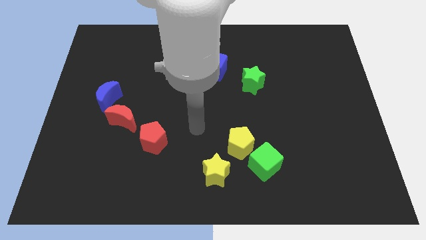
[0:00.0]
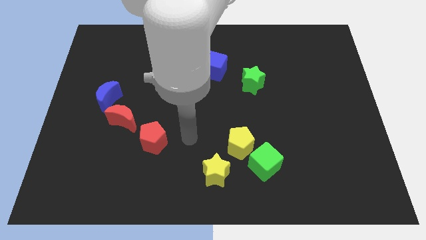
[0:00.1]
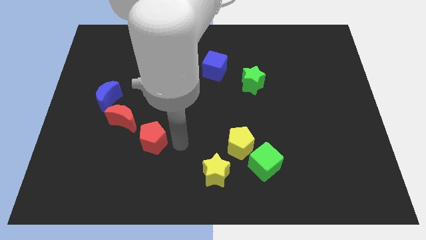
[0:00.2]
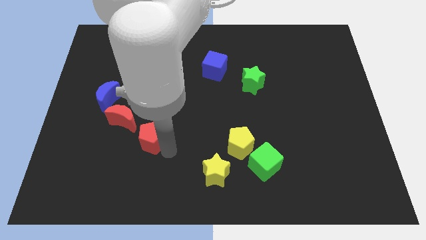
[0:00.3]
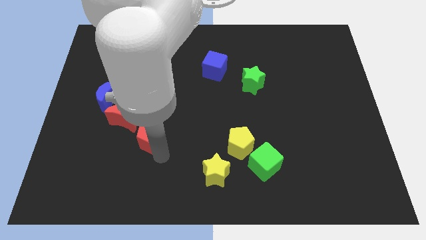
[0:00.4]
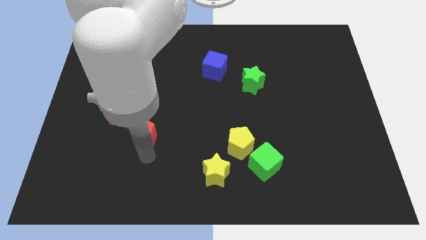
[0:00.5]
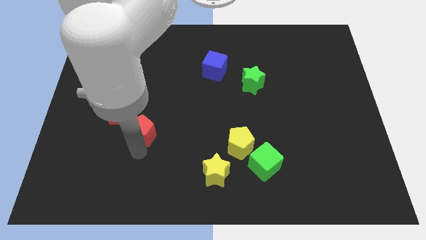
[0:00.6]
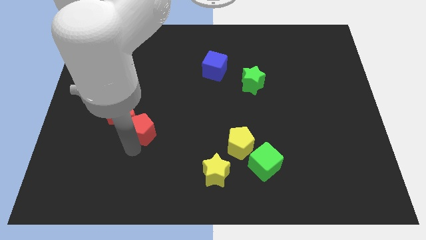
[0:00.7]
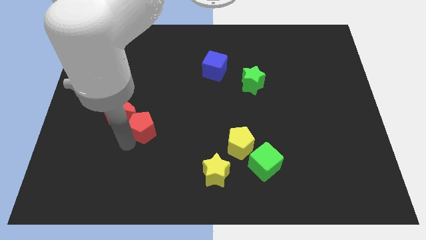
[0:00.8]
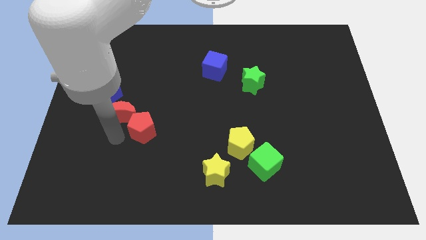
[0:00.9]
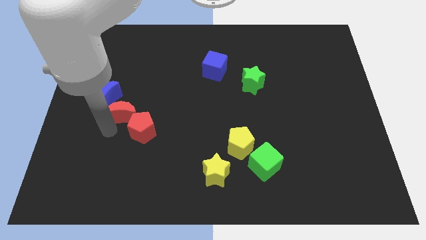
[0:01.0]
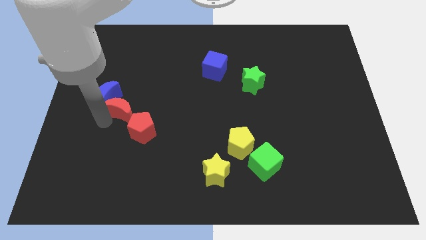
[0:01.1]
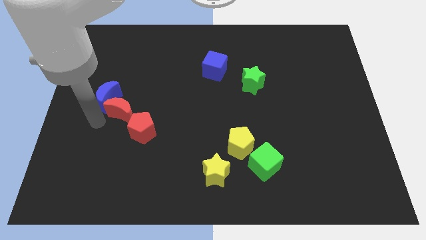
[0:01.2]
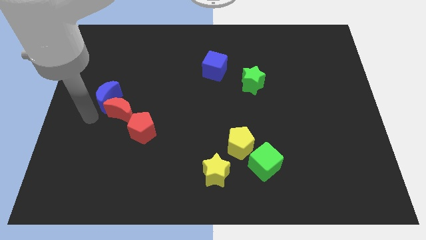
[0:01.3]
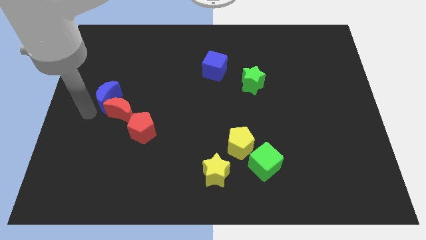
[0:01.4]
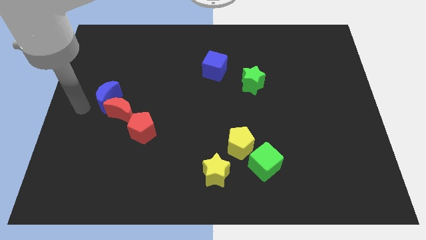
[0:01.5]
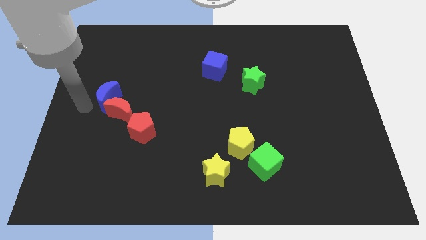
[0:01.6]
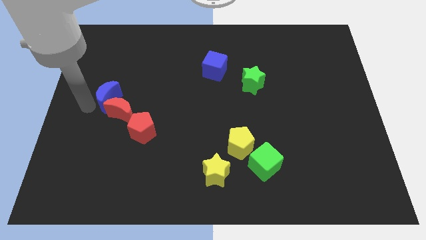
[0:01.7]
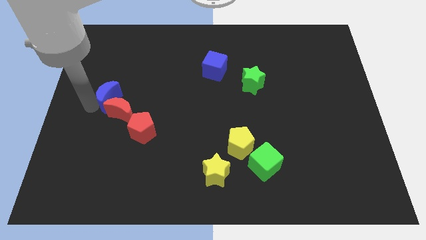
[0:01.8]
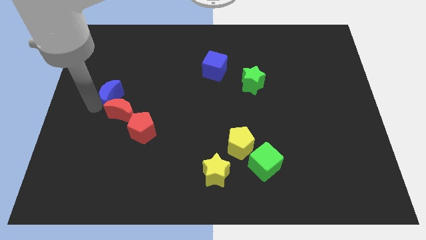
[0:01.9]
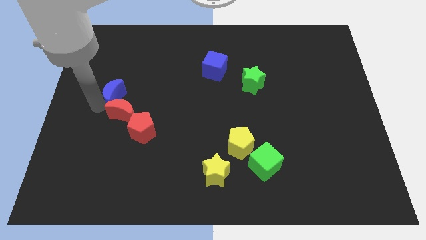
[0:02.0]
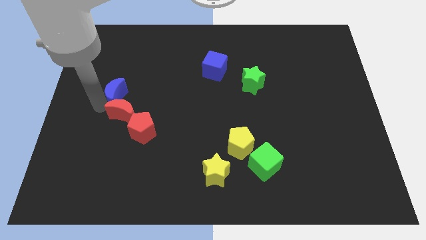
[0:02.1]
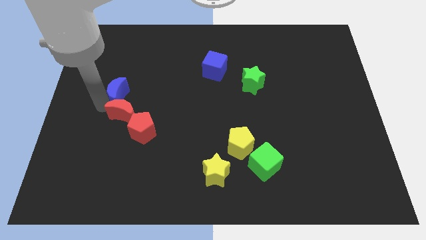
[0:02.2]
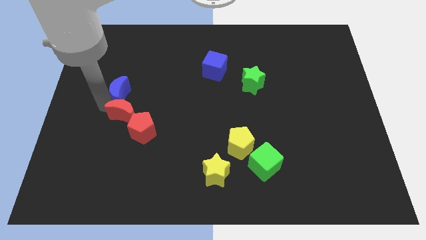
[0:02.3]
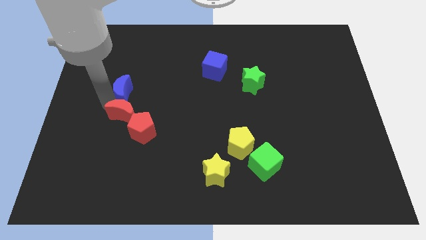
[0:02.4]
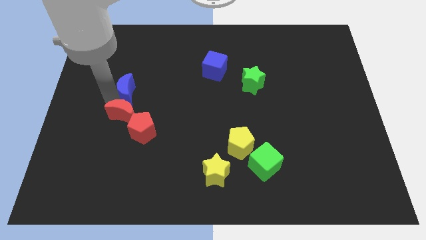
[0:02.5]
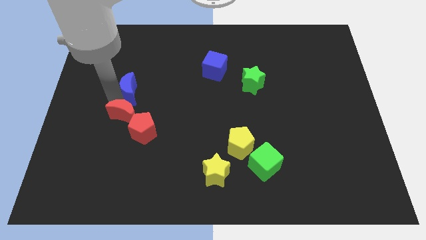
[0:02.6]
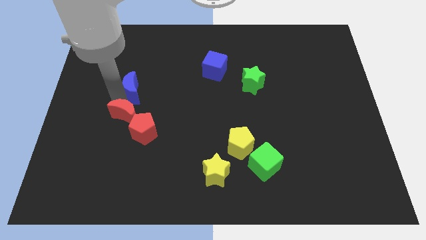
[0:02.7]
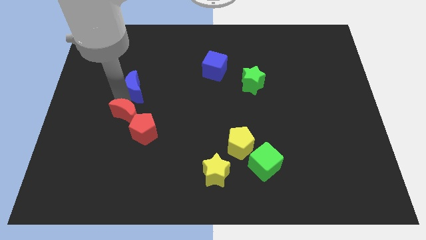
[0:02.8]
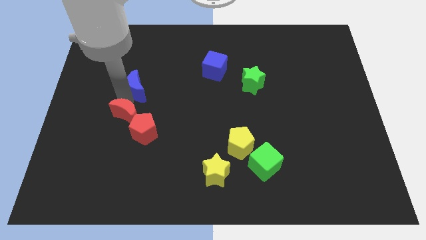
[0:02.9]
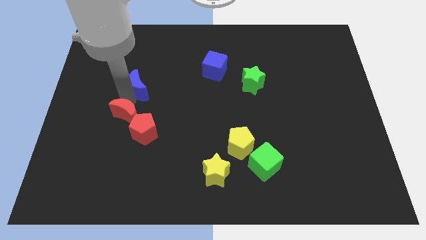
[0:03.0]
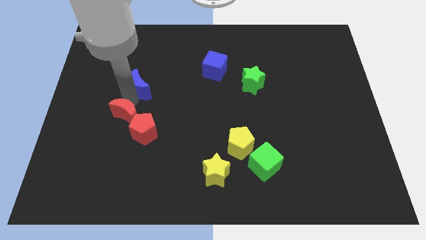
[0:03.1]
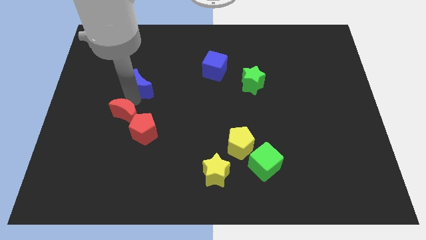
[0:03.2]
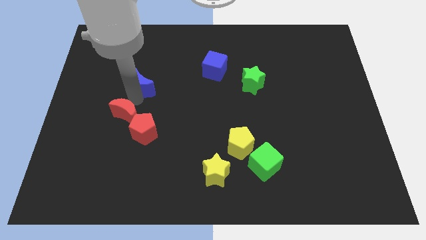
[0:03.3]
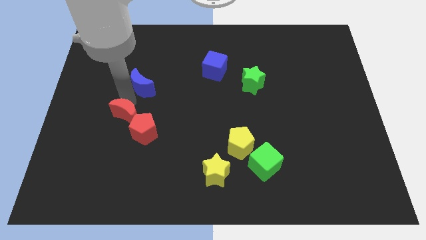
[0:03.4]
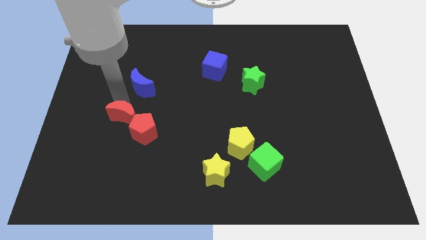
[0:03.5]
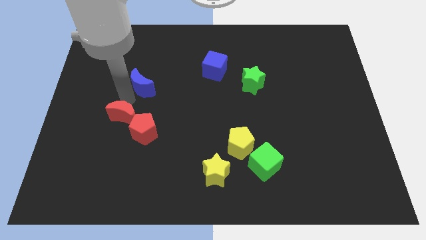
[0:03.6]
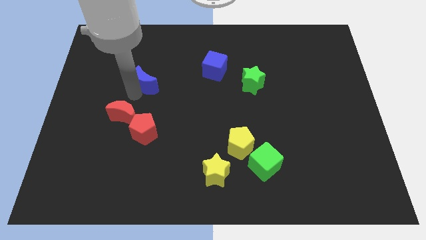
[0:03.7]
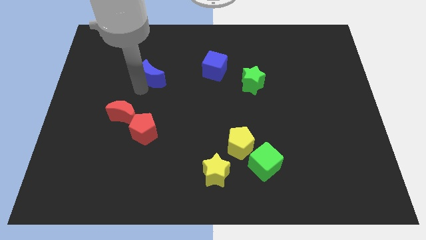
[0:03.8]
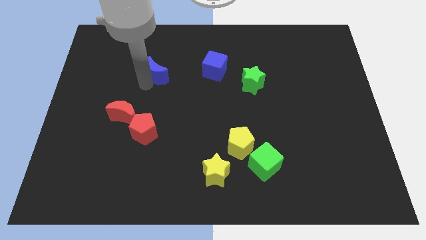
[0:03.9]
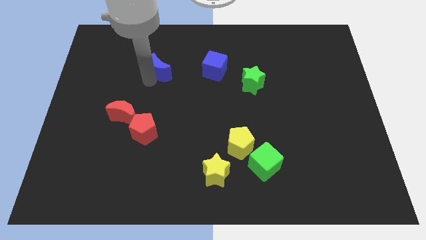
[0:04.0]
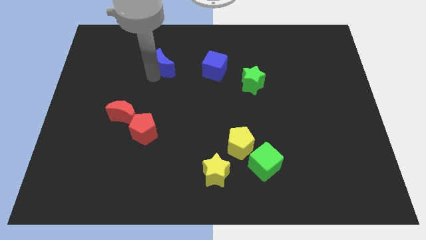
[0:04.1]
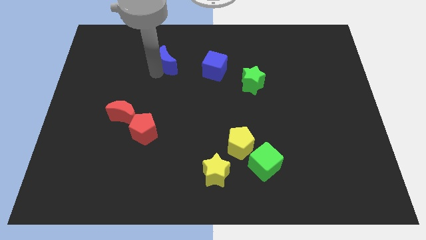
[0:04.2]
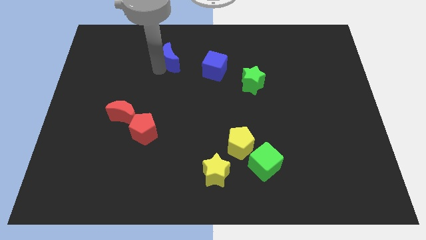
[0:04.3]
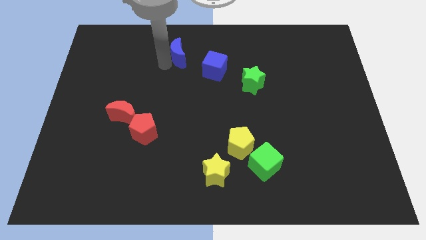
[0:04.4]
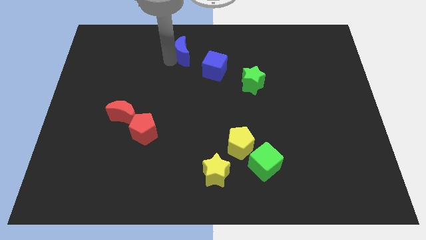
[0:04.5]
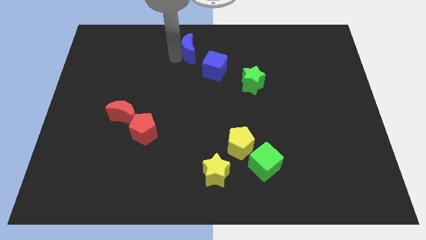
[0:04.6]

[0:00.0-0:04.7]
put the blue moon to the top side

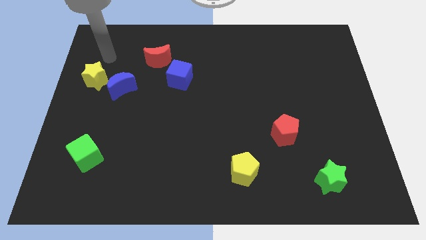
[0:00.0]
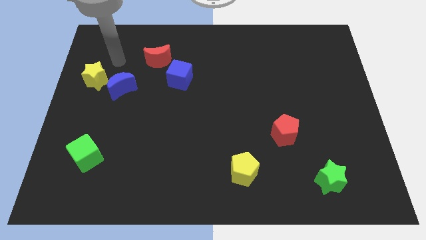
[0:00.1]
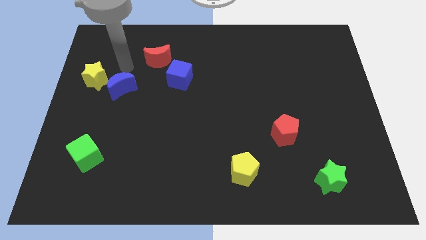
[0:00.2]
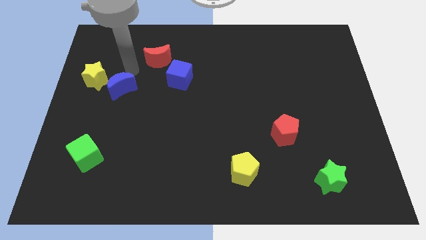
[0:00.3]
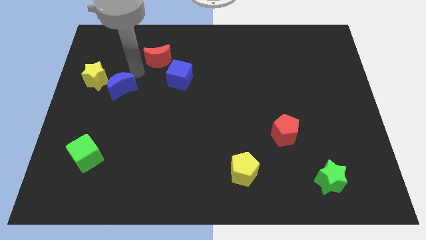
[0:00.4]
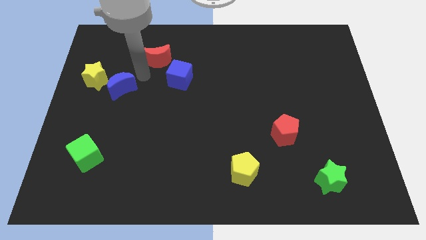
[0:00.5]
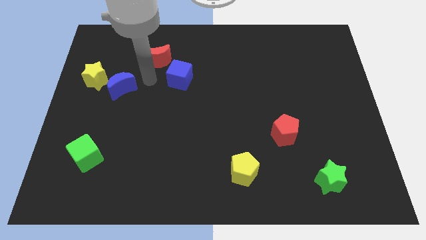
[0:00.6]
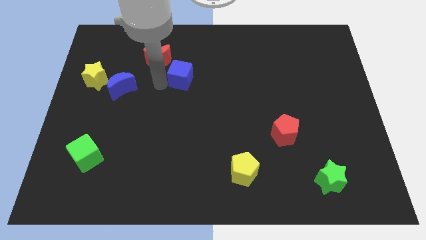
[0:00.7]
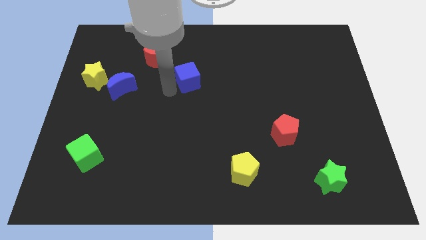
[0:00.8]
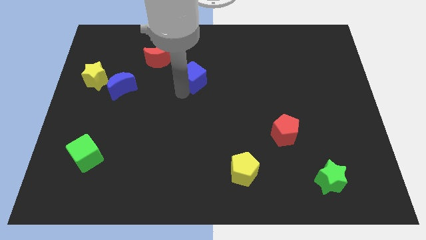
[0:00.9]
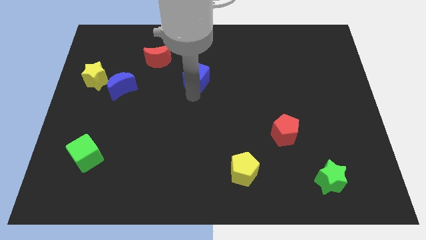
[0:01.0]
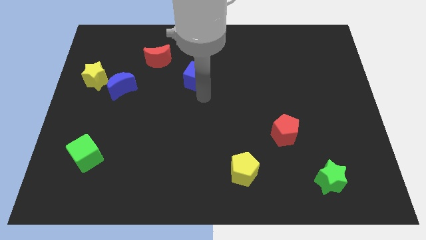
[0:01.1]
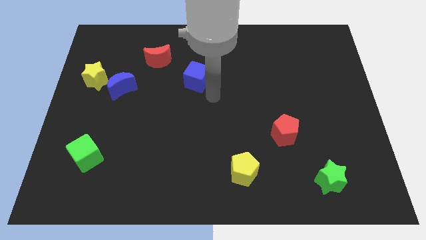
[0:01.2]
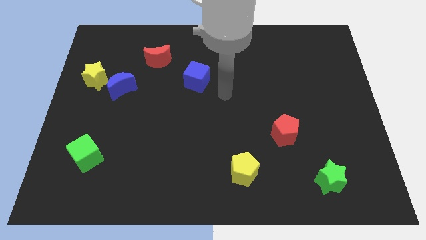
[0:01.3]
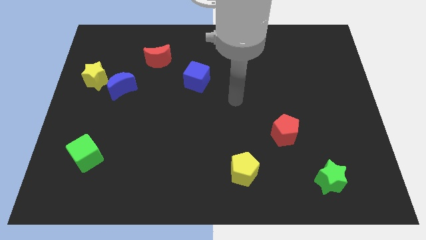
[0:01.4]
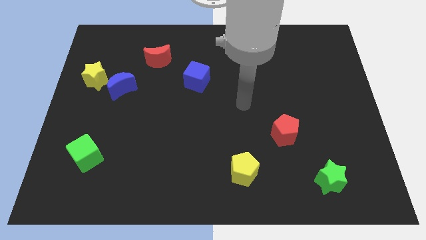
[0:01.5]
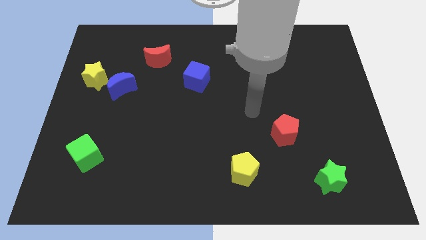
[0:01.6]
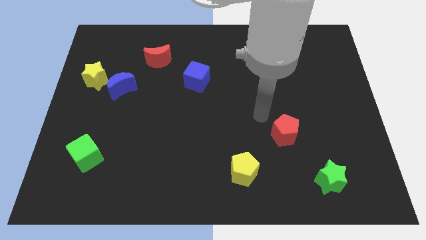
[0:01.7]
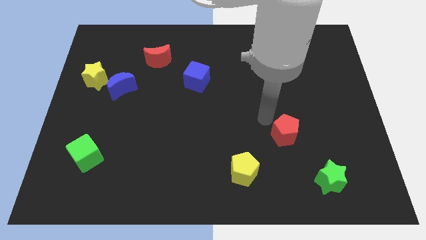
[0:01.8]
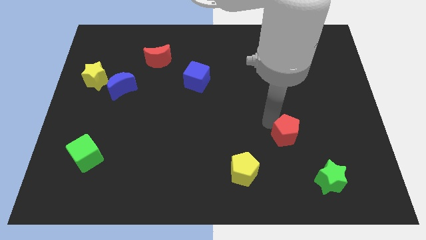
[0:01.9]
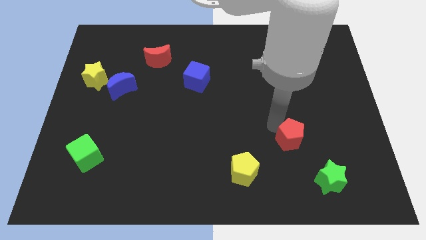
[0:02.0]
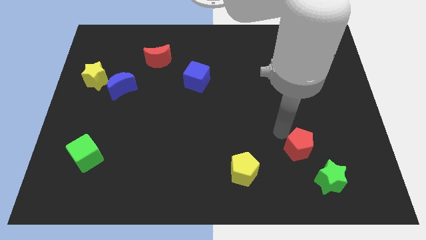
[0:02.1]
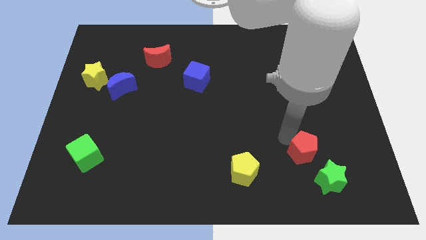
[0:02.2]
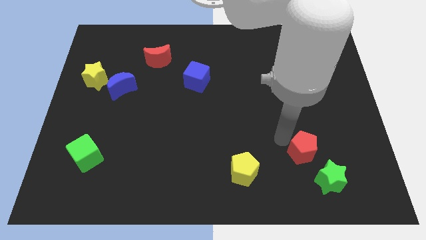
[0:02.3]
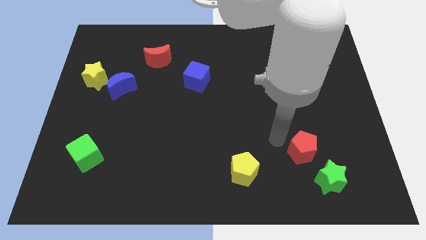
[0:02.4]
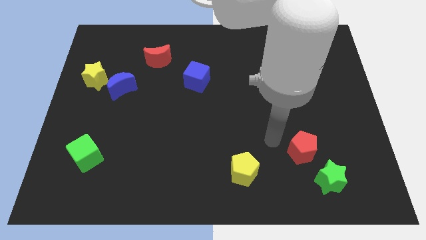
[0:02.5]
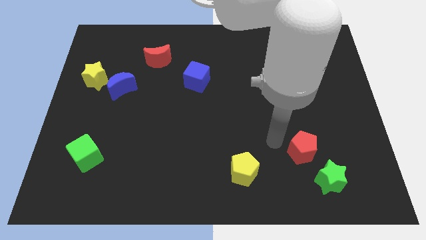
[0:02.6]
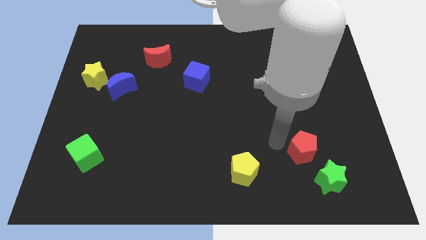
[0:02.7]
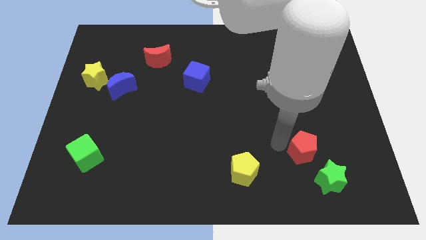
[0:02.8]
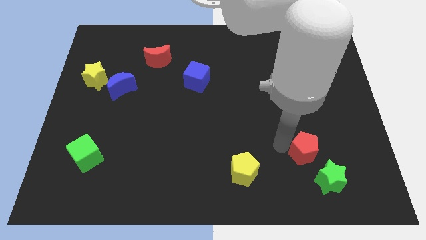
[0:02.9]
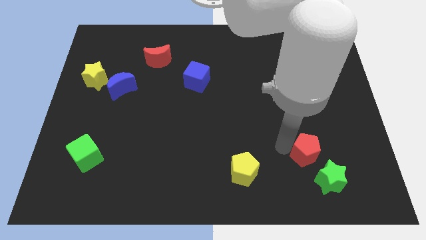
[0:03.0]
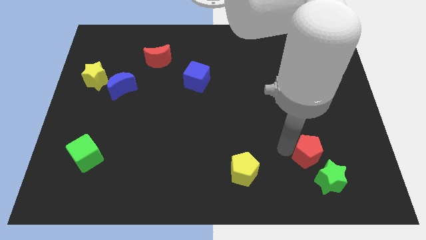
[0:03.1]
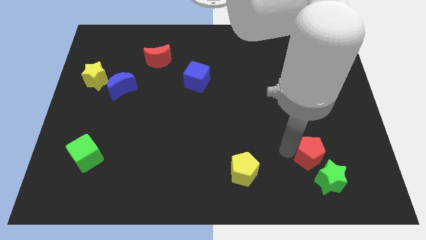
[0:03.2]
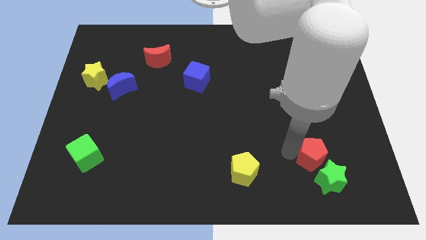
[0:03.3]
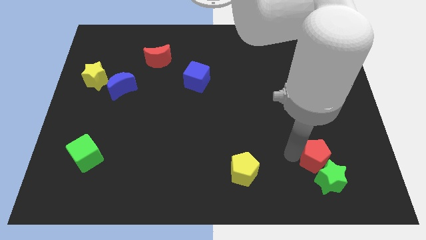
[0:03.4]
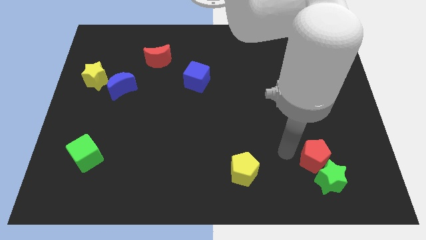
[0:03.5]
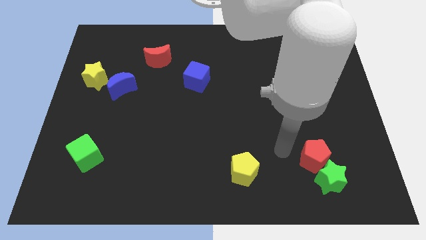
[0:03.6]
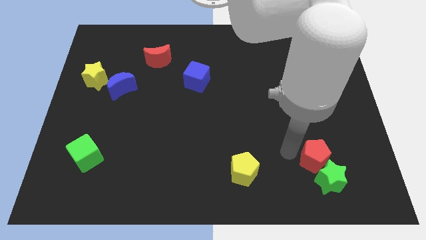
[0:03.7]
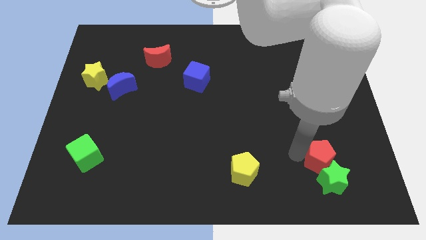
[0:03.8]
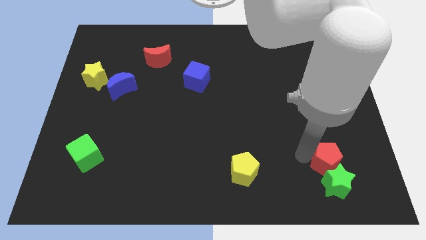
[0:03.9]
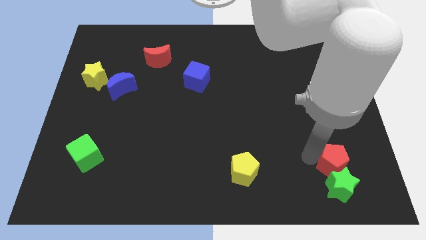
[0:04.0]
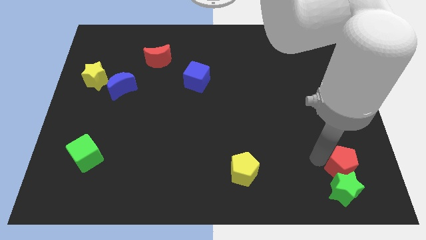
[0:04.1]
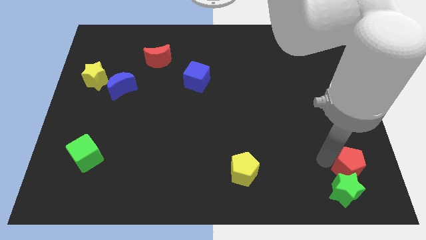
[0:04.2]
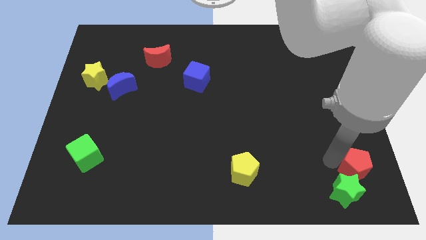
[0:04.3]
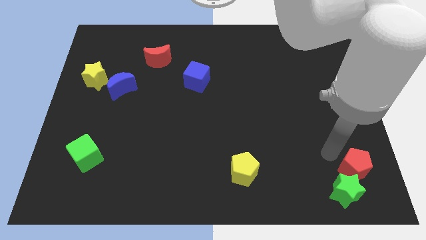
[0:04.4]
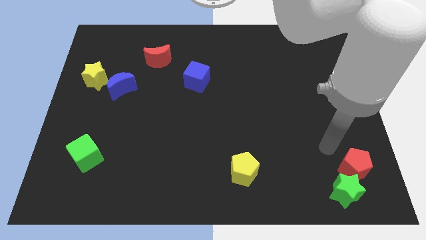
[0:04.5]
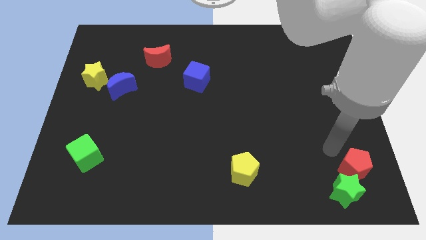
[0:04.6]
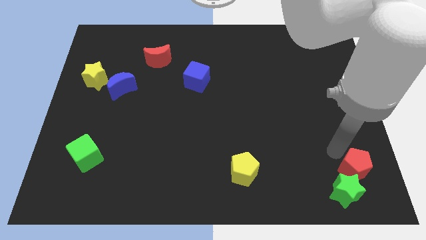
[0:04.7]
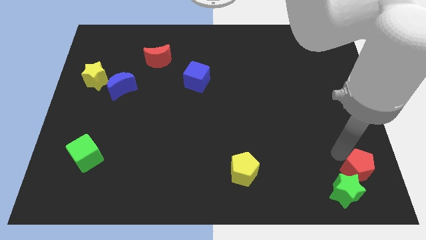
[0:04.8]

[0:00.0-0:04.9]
move the red pentagon to the lower right corner
